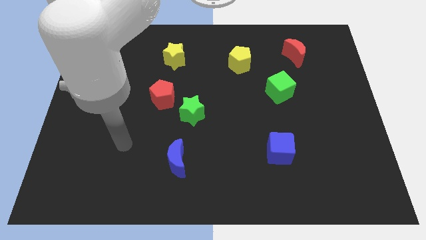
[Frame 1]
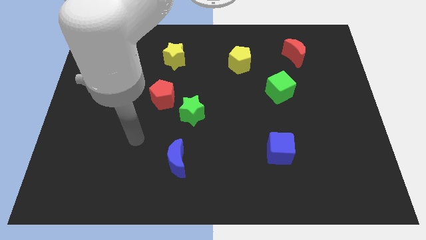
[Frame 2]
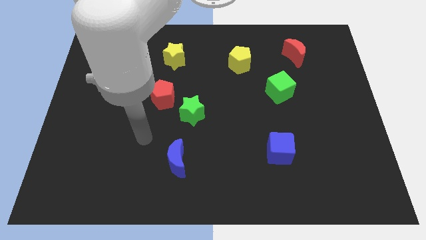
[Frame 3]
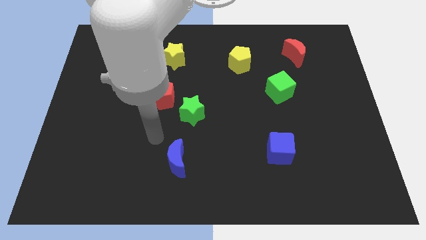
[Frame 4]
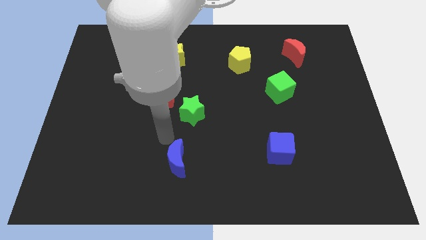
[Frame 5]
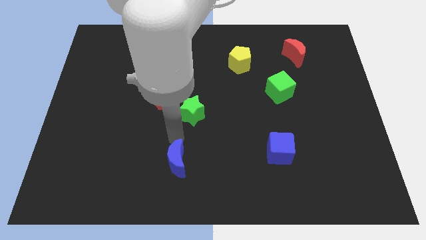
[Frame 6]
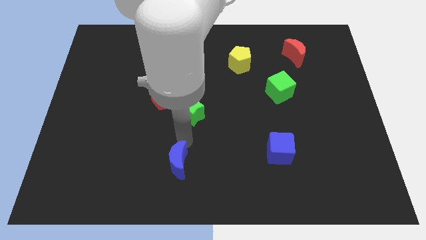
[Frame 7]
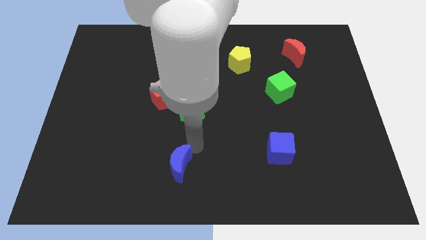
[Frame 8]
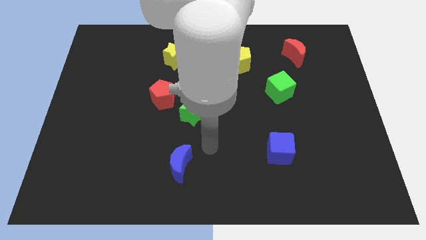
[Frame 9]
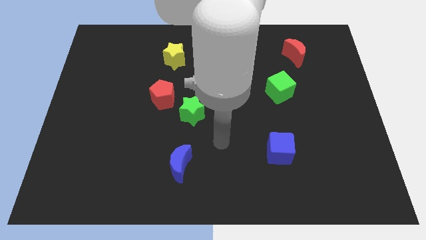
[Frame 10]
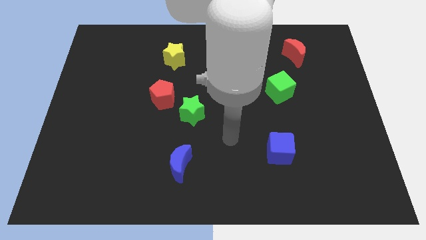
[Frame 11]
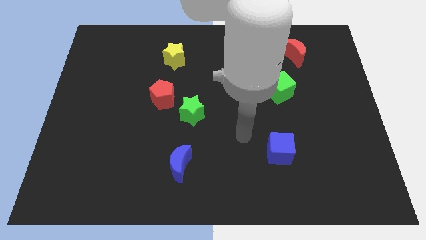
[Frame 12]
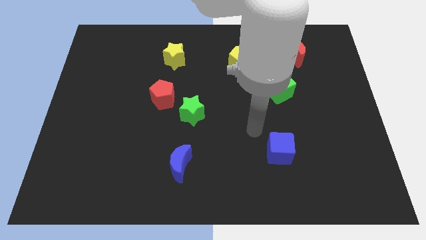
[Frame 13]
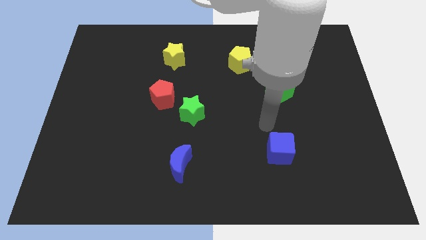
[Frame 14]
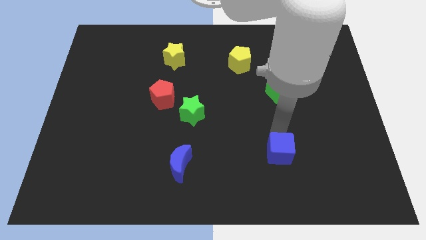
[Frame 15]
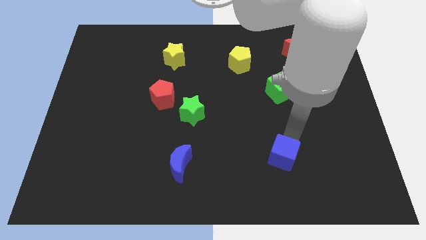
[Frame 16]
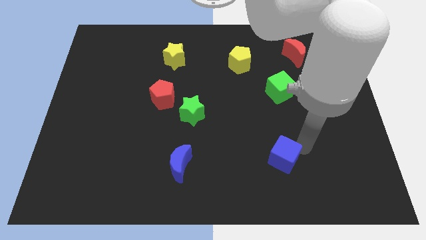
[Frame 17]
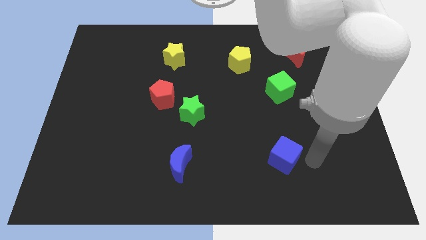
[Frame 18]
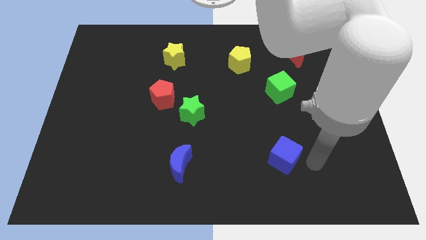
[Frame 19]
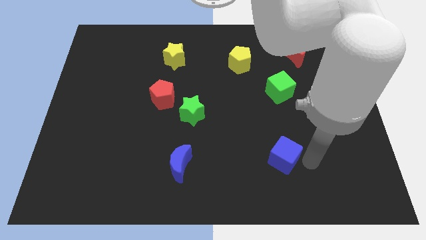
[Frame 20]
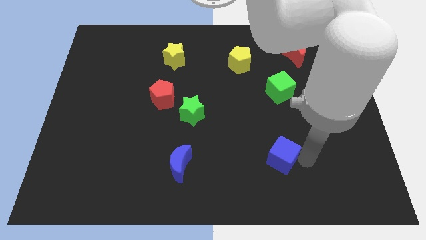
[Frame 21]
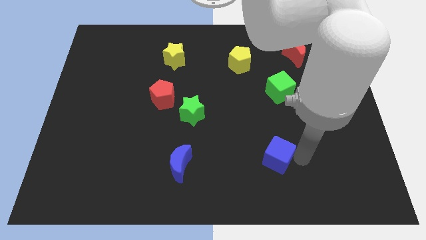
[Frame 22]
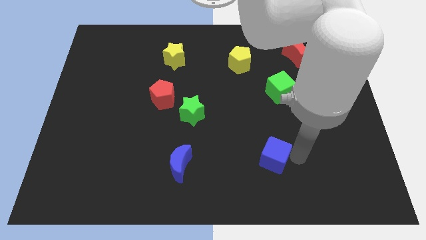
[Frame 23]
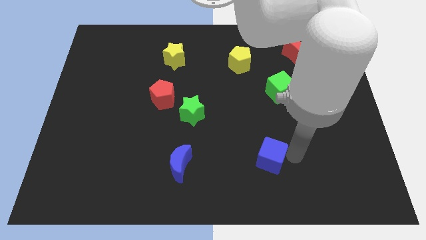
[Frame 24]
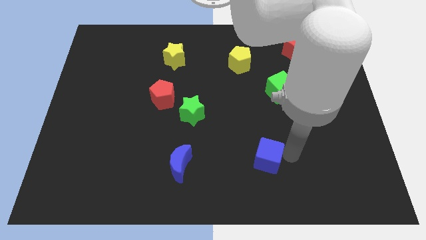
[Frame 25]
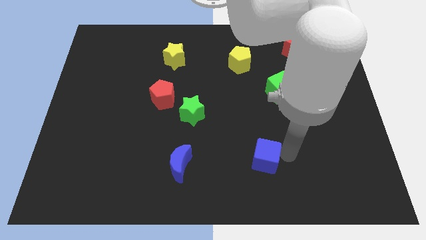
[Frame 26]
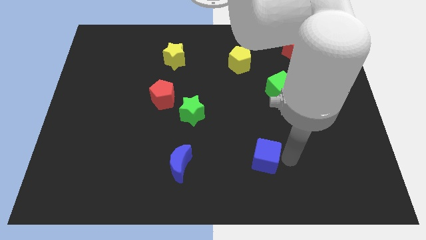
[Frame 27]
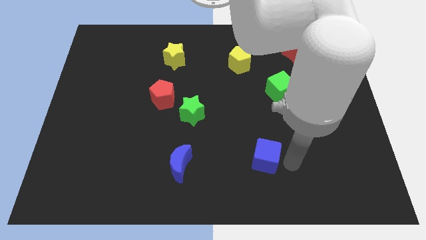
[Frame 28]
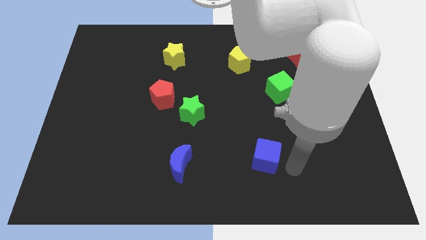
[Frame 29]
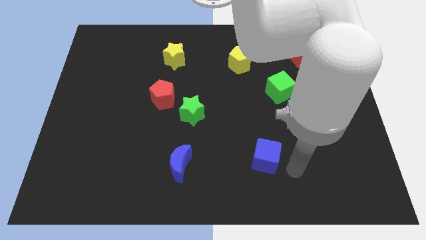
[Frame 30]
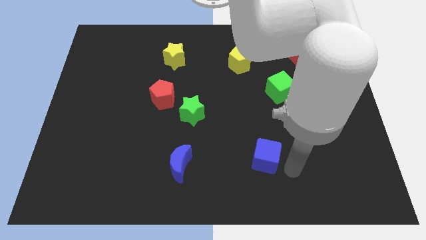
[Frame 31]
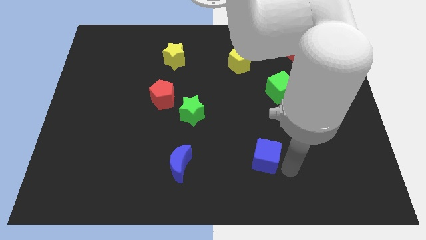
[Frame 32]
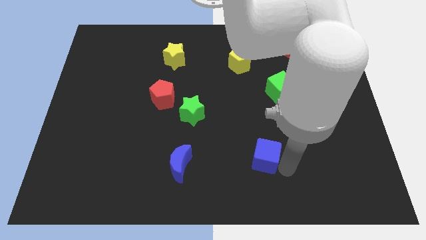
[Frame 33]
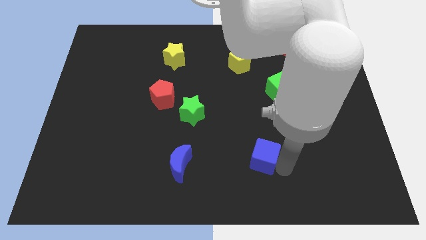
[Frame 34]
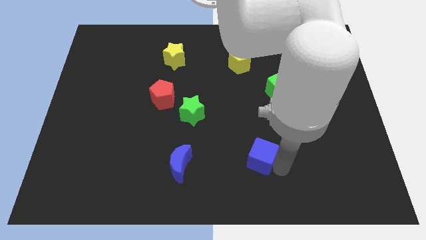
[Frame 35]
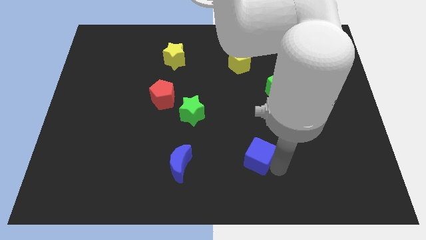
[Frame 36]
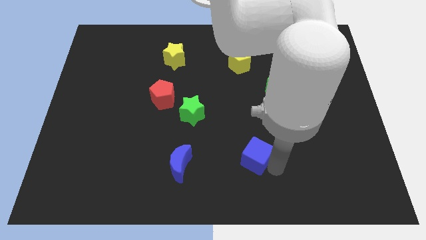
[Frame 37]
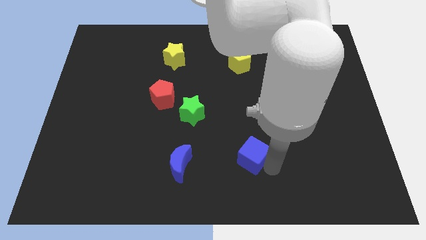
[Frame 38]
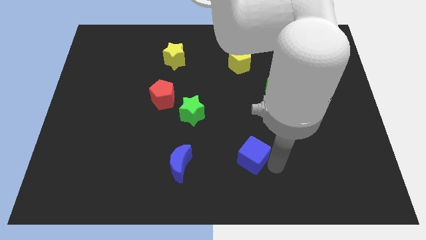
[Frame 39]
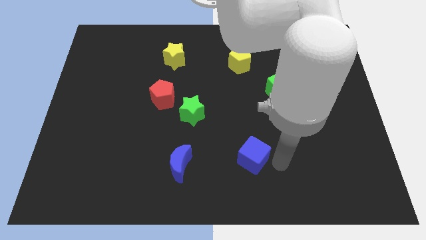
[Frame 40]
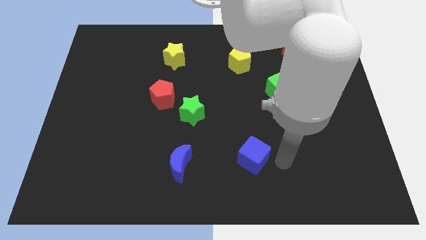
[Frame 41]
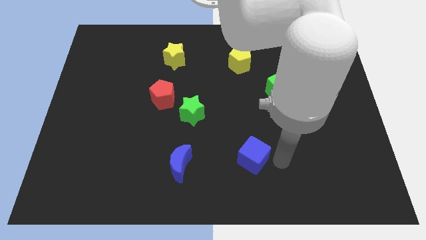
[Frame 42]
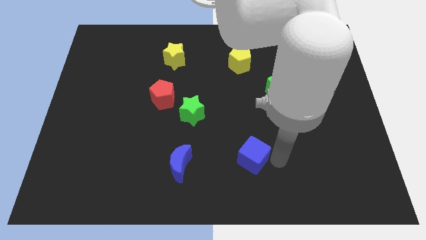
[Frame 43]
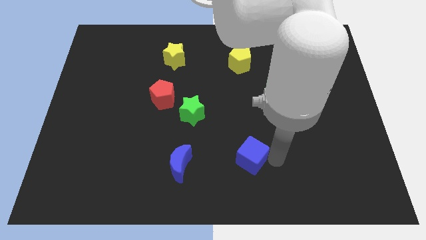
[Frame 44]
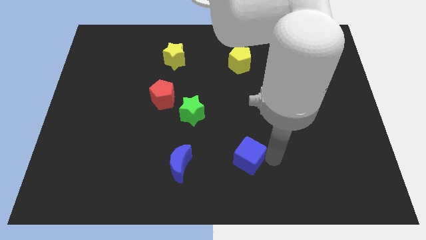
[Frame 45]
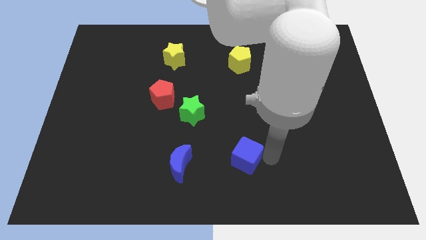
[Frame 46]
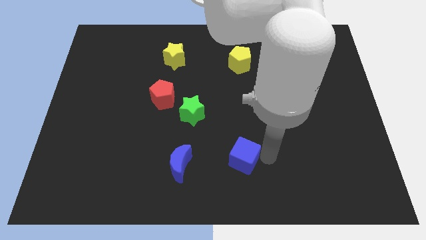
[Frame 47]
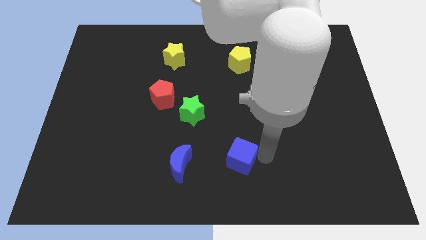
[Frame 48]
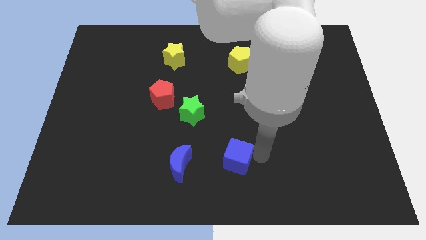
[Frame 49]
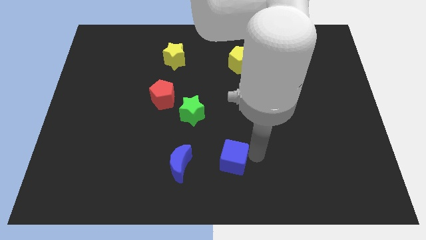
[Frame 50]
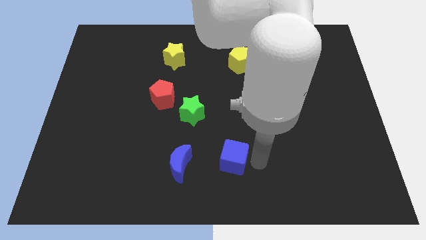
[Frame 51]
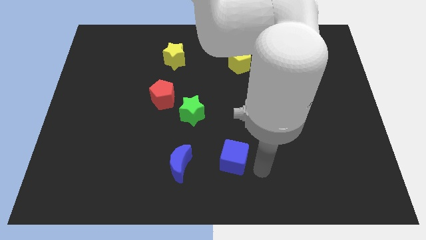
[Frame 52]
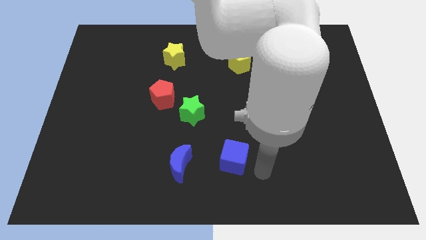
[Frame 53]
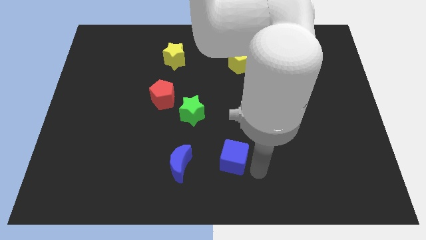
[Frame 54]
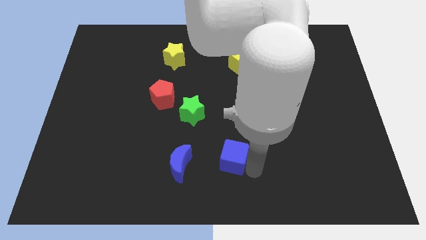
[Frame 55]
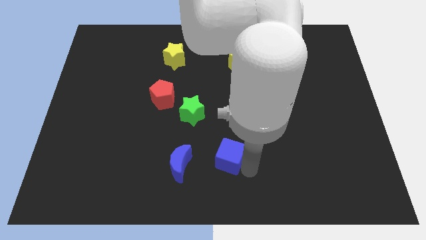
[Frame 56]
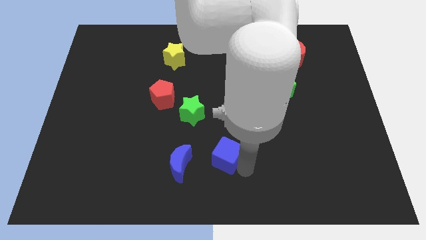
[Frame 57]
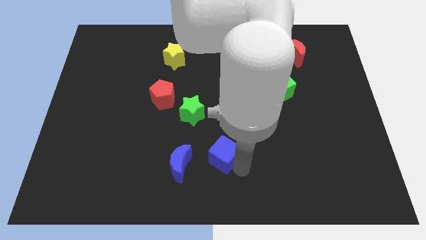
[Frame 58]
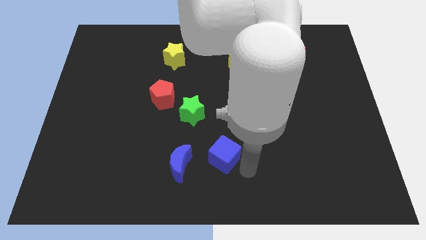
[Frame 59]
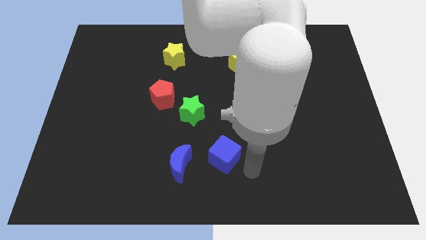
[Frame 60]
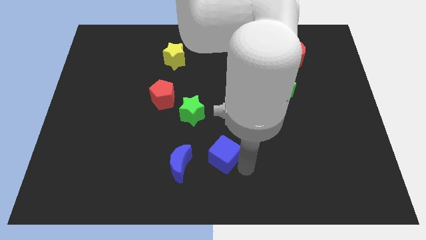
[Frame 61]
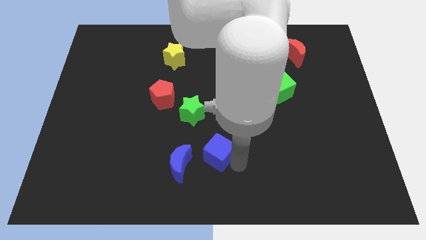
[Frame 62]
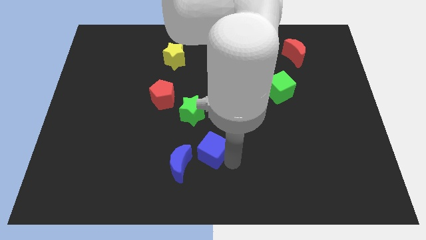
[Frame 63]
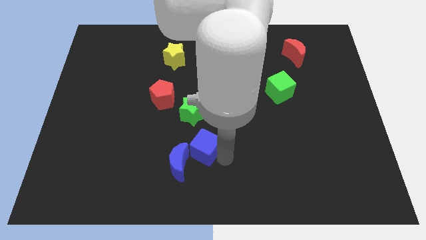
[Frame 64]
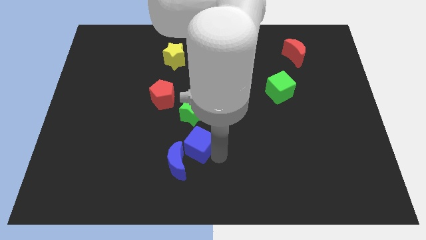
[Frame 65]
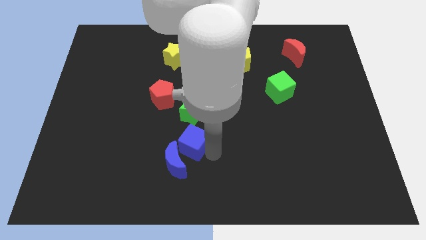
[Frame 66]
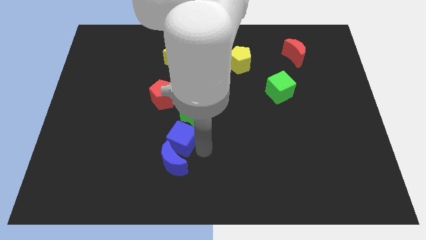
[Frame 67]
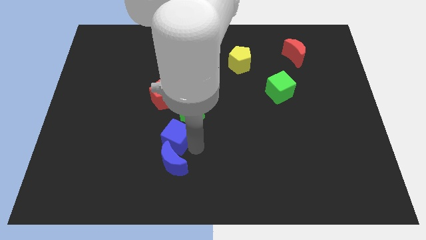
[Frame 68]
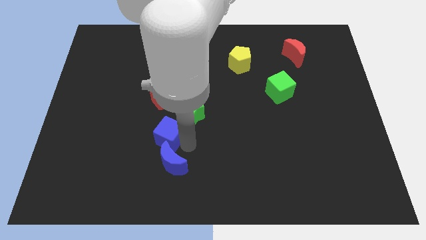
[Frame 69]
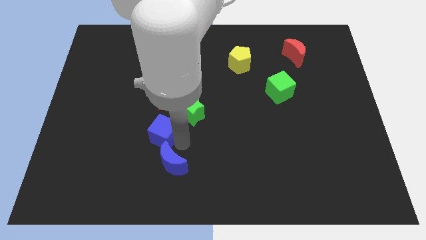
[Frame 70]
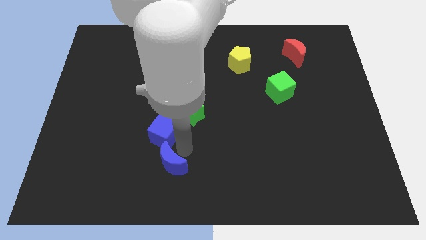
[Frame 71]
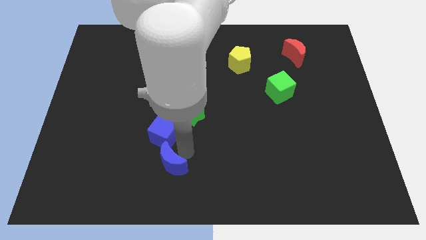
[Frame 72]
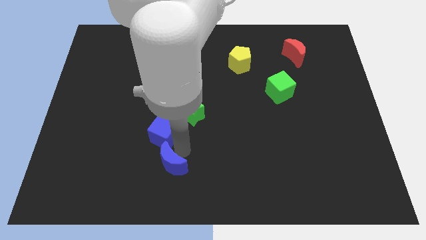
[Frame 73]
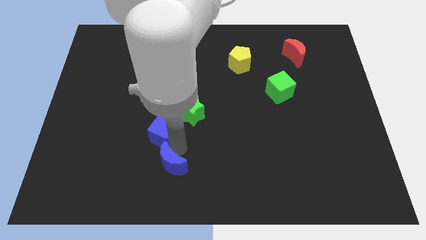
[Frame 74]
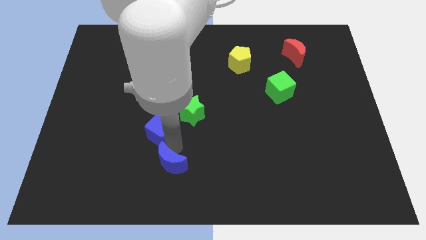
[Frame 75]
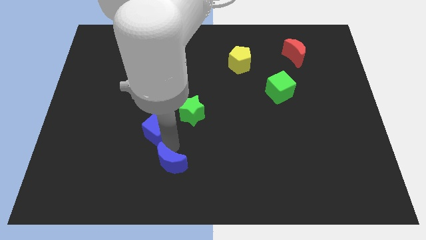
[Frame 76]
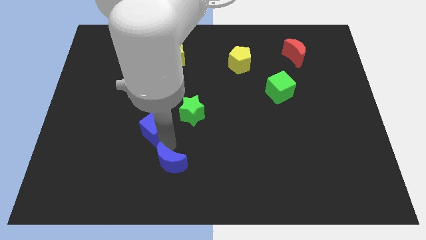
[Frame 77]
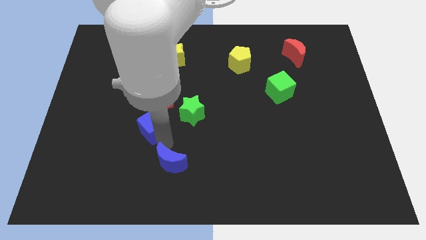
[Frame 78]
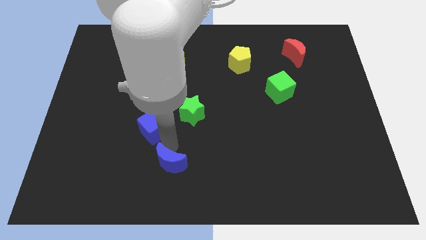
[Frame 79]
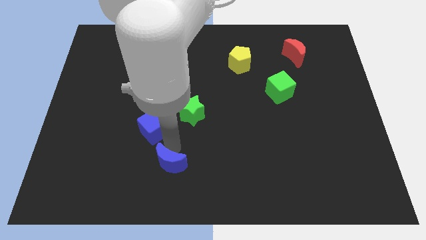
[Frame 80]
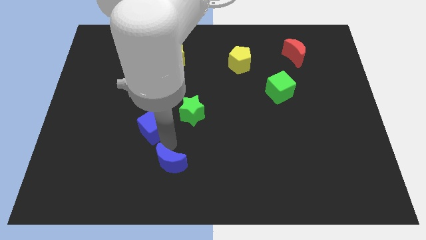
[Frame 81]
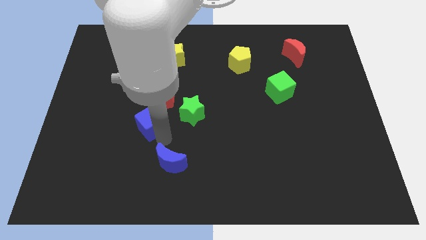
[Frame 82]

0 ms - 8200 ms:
push the blue cube to the bottom left side of the red pentagon
